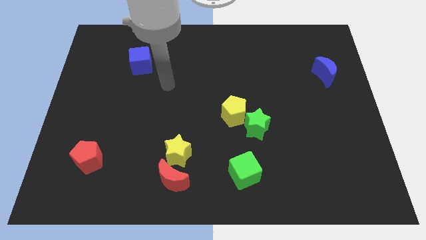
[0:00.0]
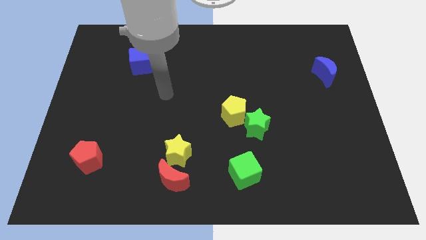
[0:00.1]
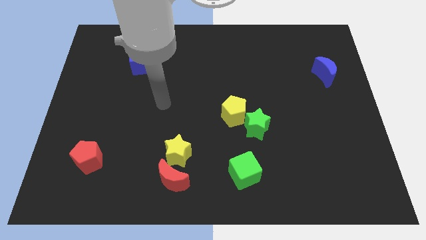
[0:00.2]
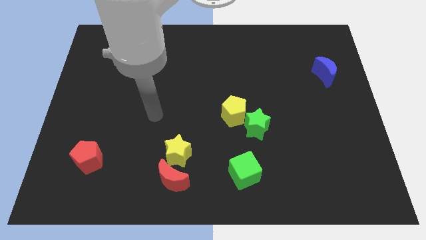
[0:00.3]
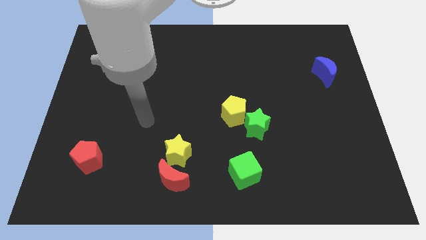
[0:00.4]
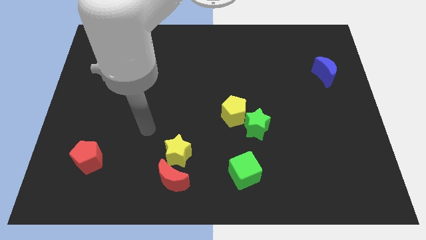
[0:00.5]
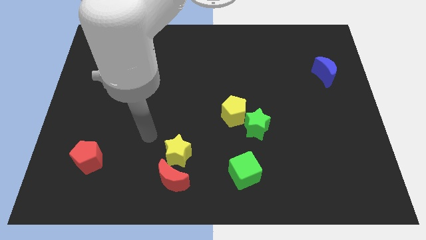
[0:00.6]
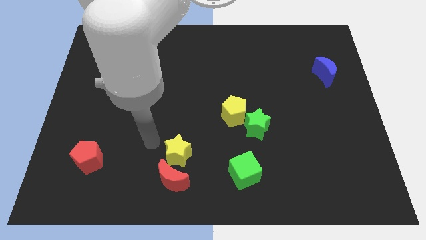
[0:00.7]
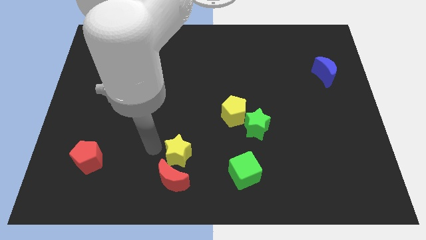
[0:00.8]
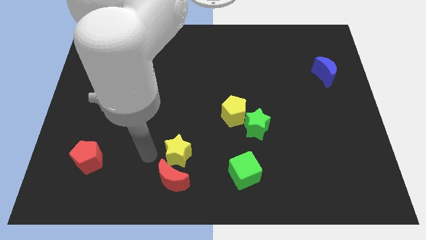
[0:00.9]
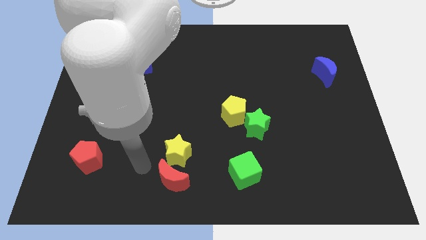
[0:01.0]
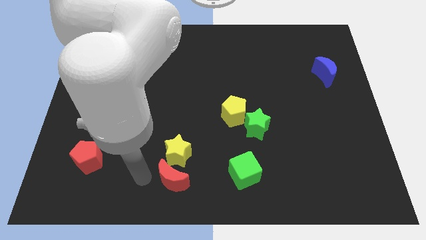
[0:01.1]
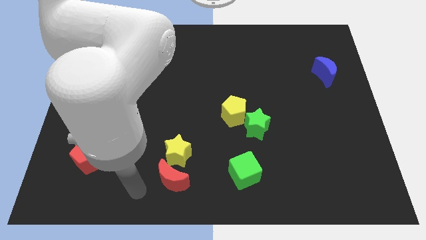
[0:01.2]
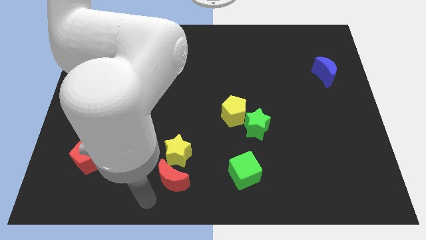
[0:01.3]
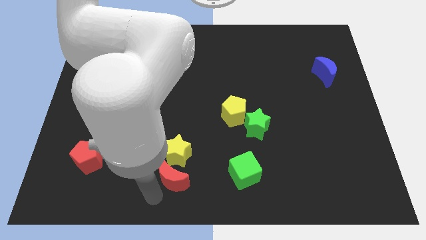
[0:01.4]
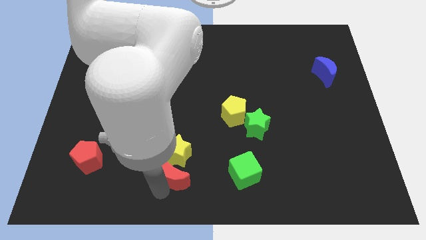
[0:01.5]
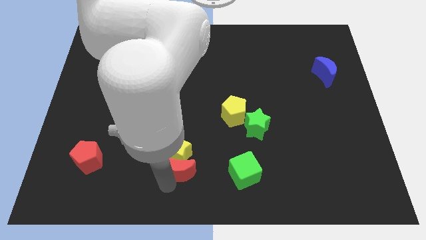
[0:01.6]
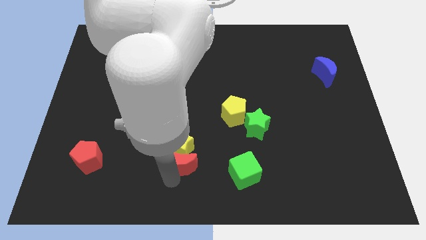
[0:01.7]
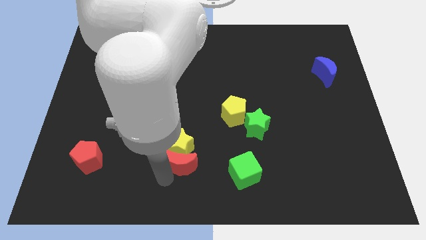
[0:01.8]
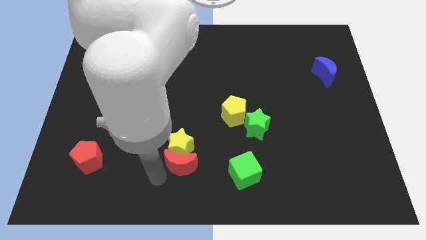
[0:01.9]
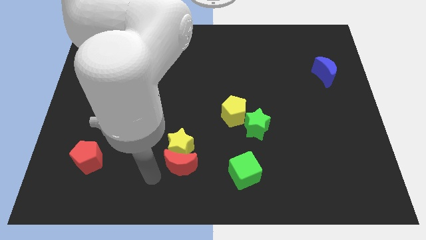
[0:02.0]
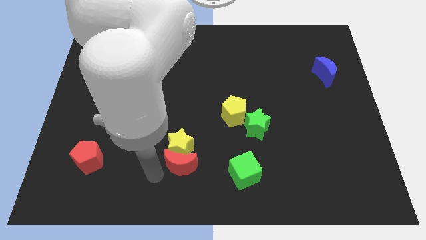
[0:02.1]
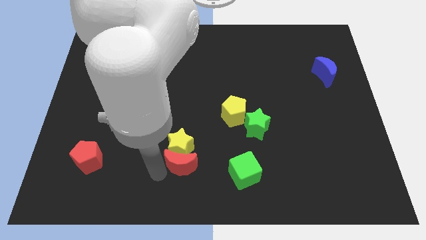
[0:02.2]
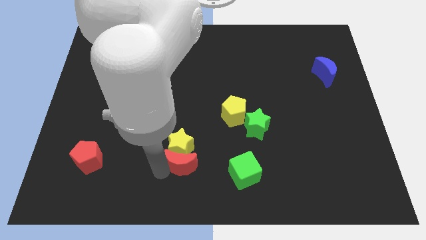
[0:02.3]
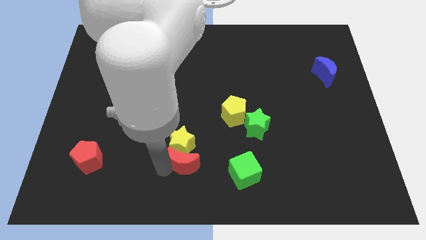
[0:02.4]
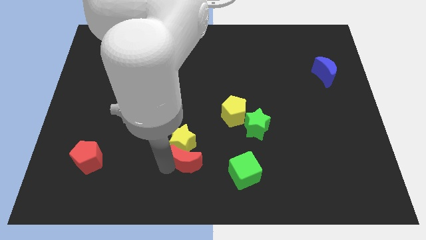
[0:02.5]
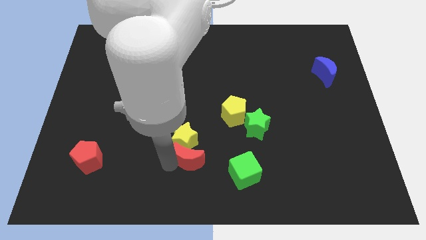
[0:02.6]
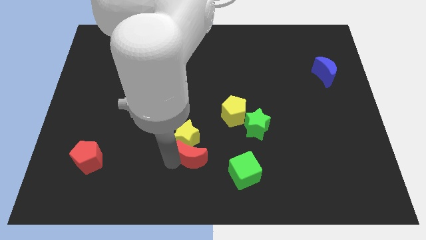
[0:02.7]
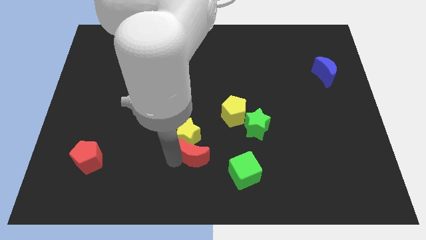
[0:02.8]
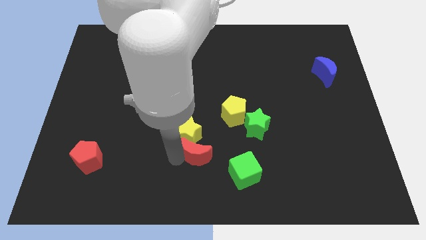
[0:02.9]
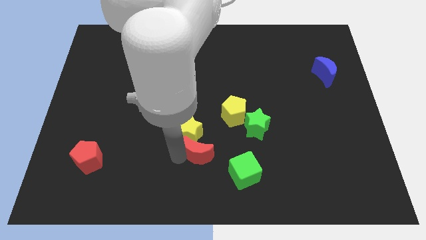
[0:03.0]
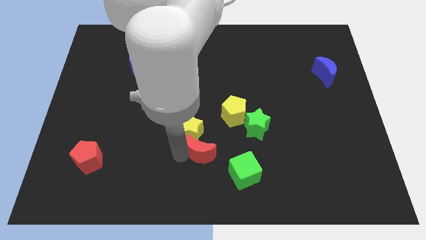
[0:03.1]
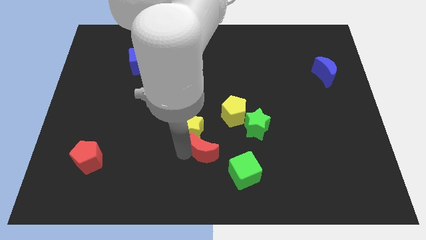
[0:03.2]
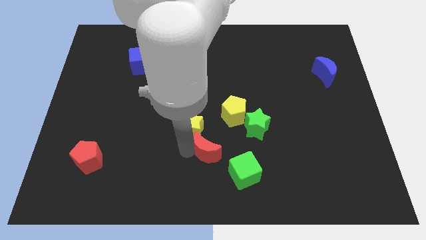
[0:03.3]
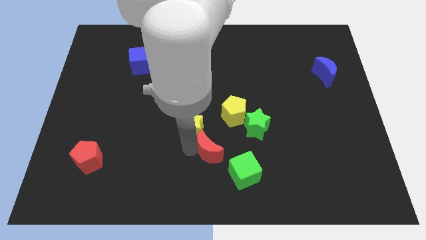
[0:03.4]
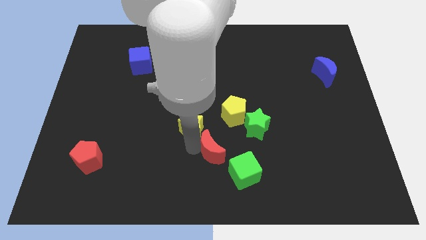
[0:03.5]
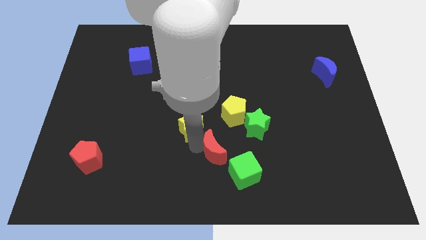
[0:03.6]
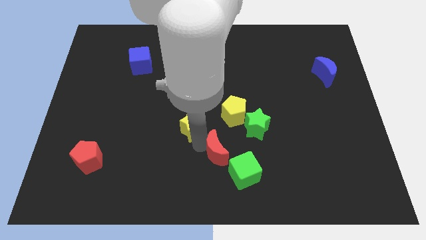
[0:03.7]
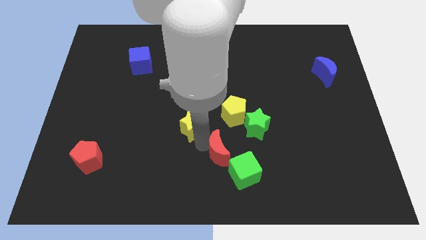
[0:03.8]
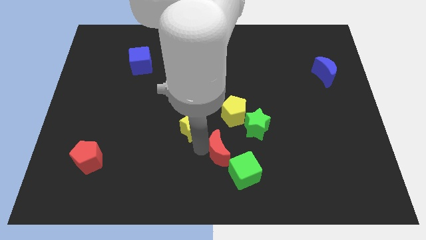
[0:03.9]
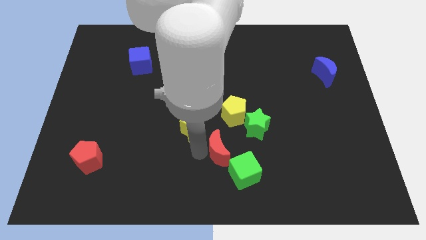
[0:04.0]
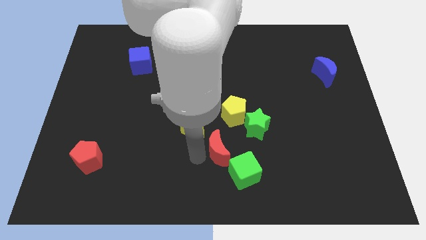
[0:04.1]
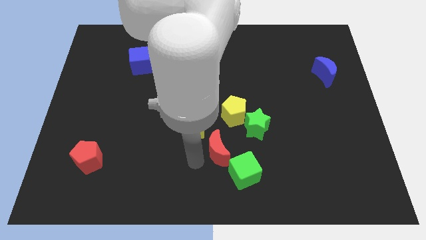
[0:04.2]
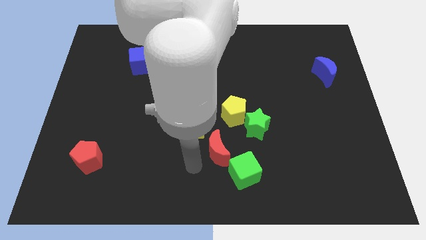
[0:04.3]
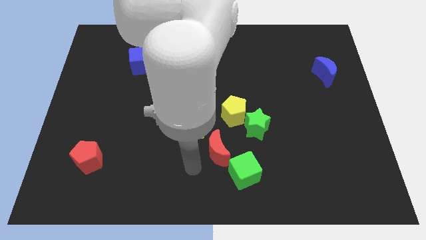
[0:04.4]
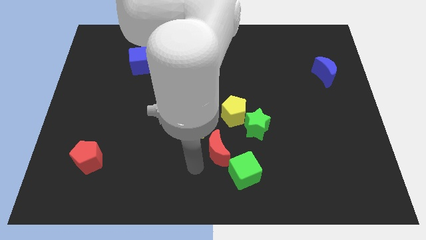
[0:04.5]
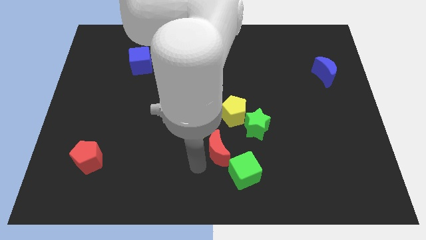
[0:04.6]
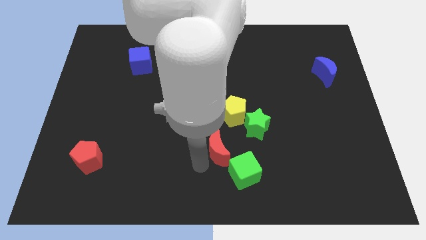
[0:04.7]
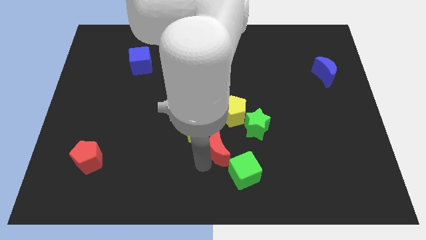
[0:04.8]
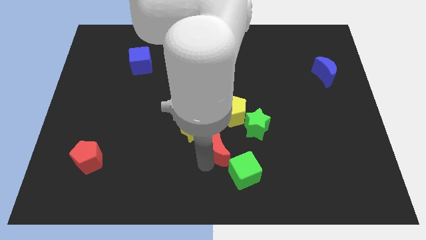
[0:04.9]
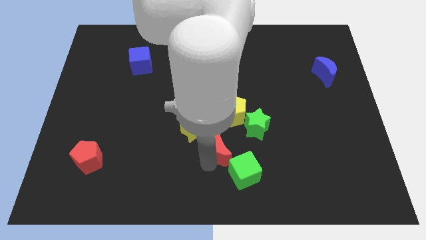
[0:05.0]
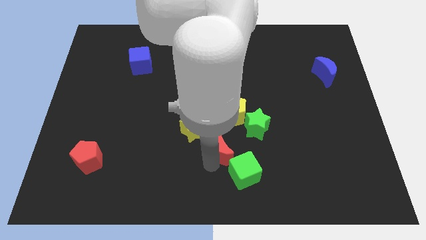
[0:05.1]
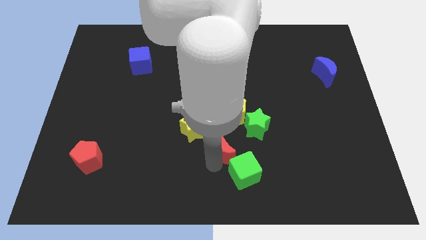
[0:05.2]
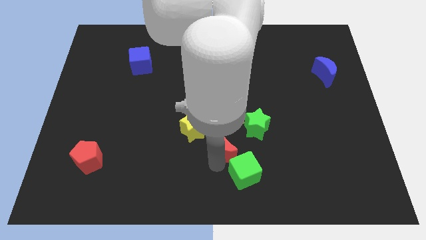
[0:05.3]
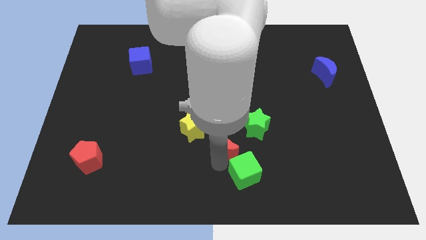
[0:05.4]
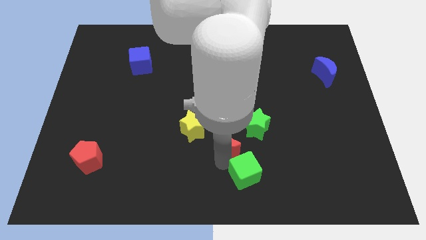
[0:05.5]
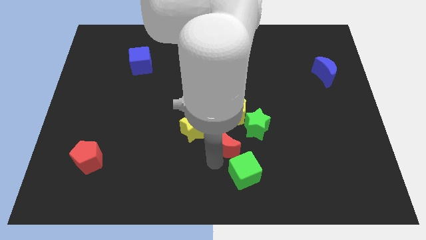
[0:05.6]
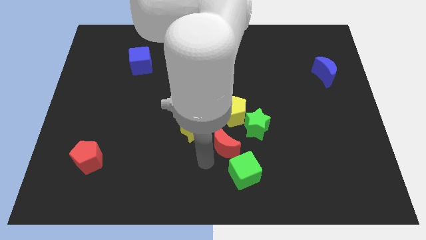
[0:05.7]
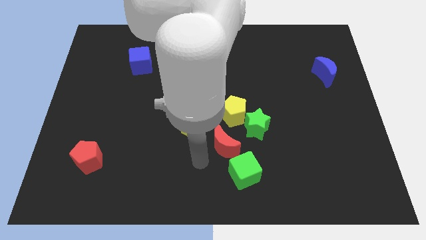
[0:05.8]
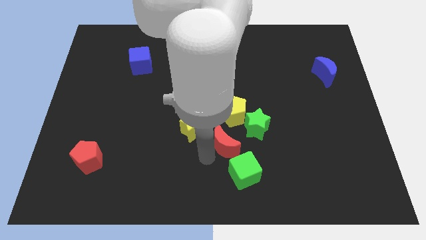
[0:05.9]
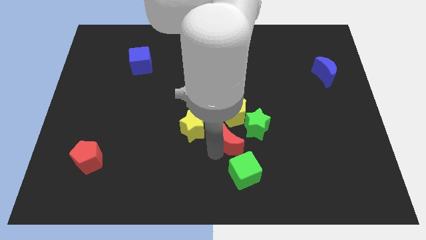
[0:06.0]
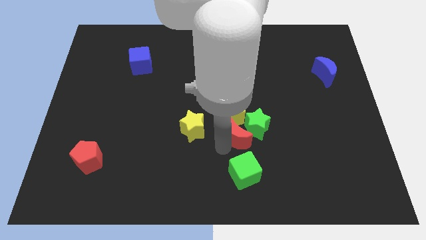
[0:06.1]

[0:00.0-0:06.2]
put the red moon to the green star

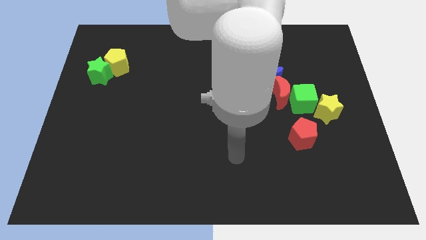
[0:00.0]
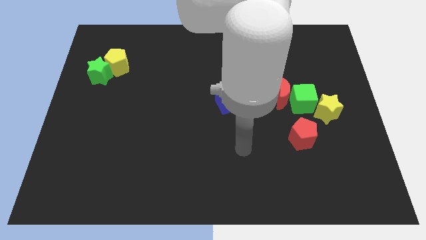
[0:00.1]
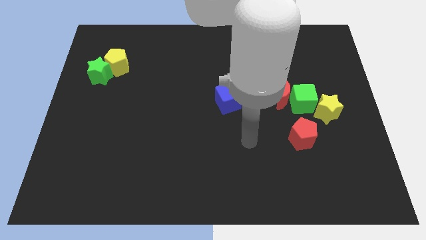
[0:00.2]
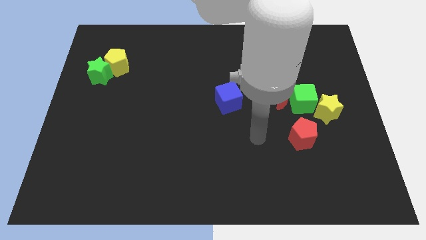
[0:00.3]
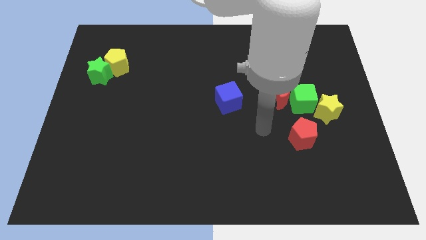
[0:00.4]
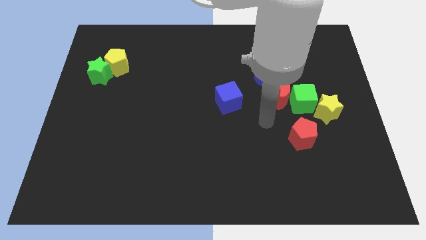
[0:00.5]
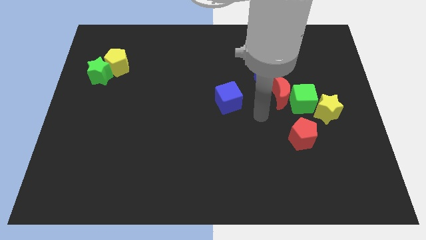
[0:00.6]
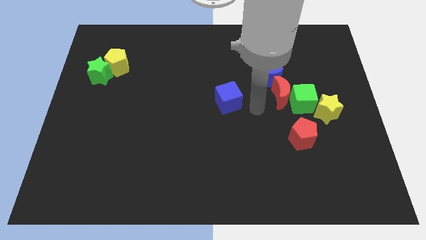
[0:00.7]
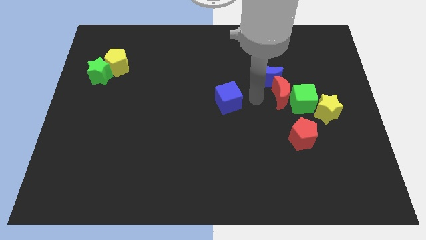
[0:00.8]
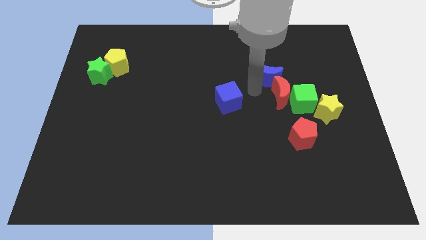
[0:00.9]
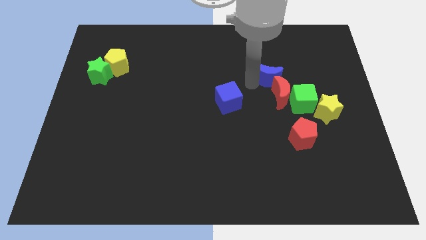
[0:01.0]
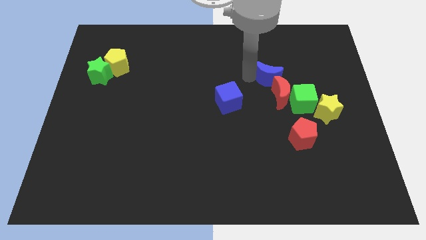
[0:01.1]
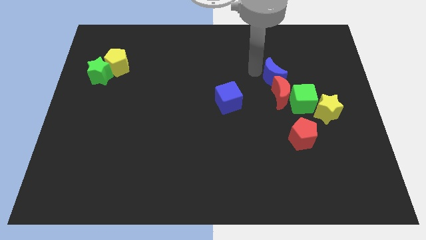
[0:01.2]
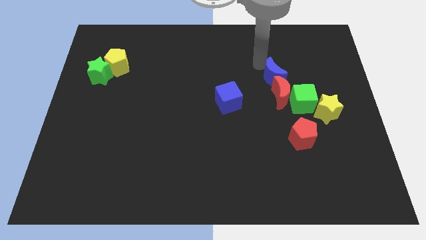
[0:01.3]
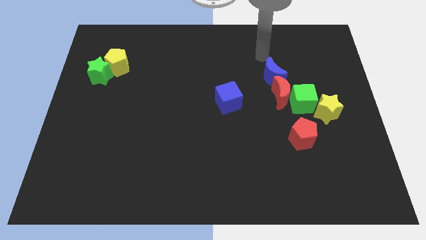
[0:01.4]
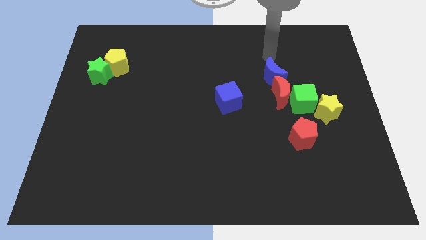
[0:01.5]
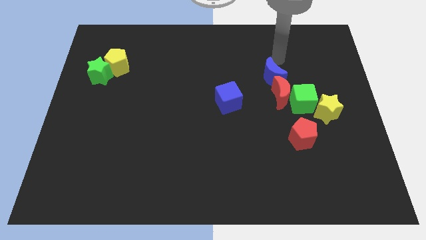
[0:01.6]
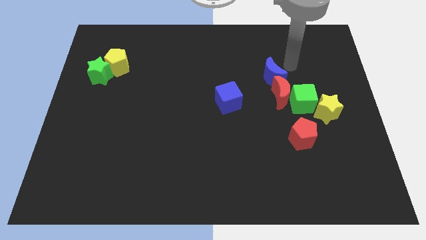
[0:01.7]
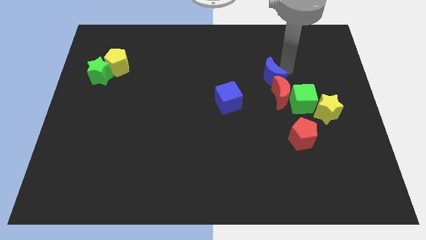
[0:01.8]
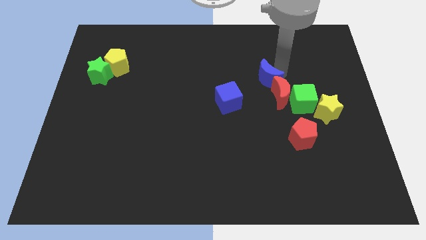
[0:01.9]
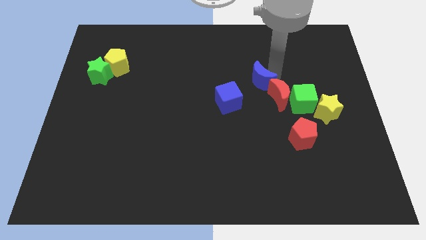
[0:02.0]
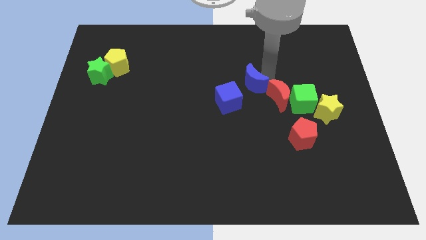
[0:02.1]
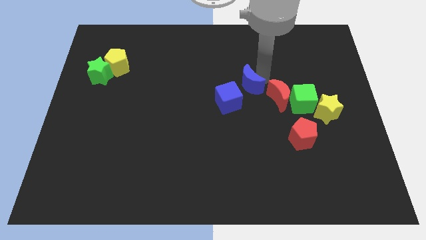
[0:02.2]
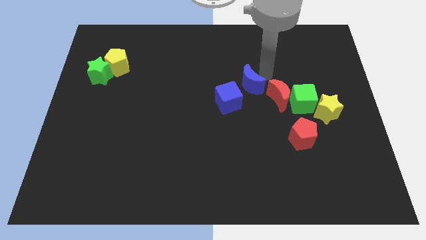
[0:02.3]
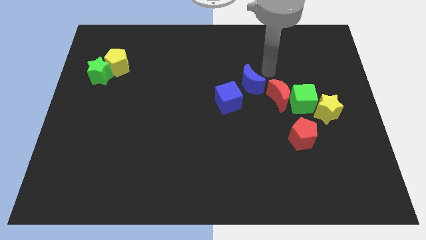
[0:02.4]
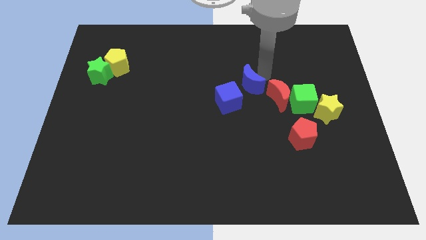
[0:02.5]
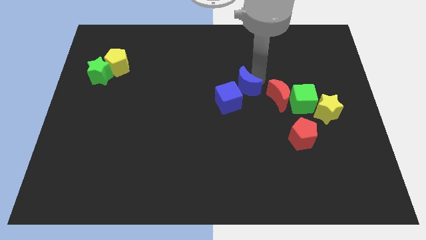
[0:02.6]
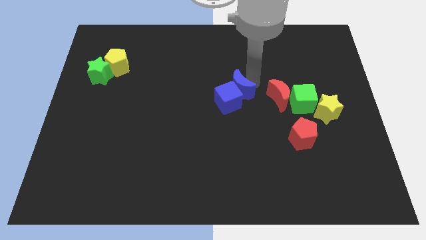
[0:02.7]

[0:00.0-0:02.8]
push the blue moon next to the blue cube
